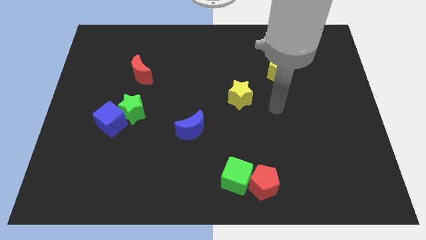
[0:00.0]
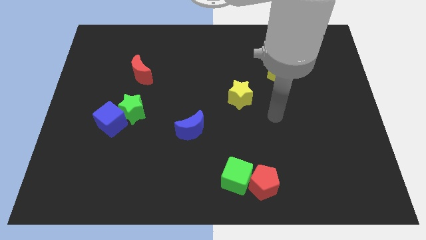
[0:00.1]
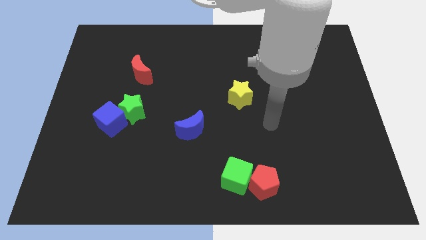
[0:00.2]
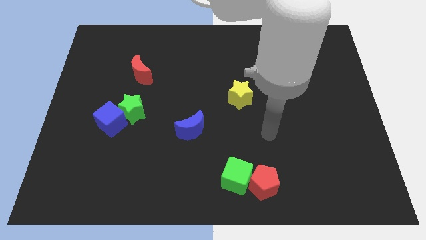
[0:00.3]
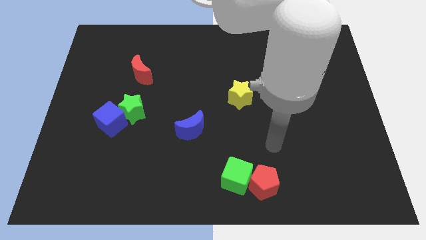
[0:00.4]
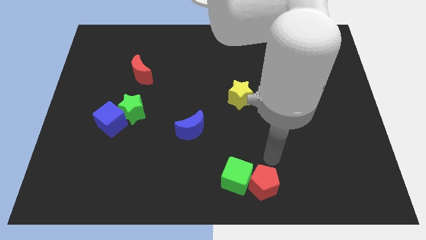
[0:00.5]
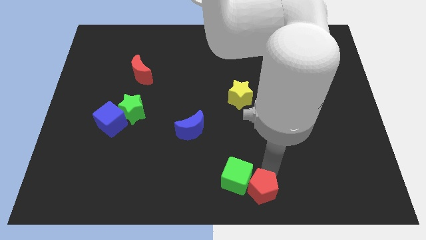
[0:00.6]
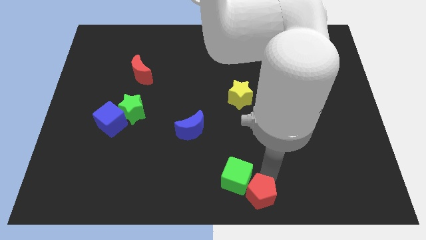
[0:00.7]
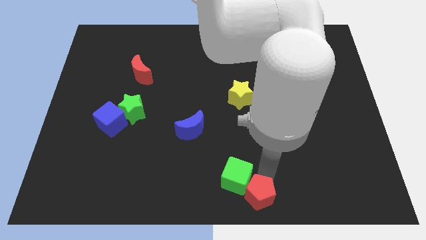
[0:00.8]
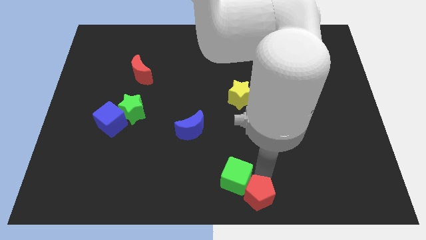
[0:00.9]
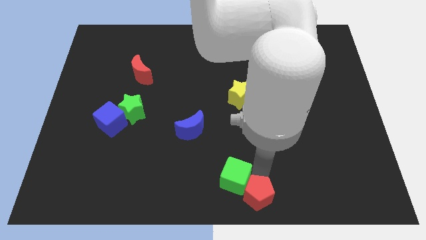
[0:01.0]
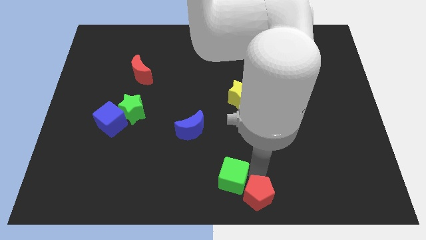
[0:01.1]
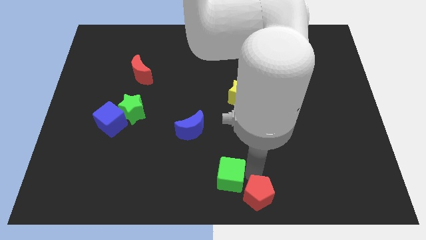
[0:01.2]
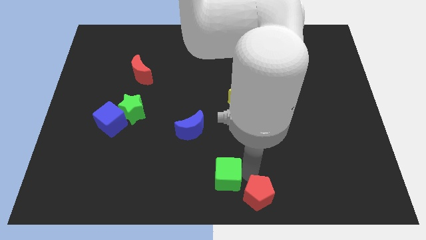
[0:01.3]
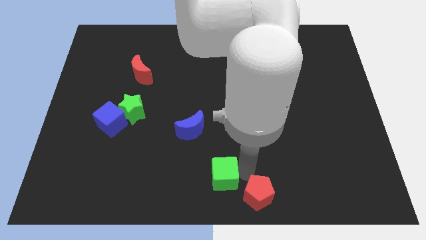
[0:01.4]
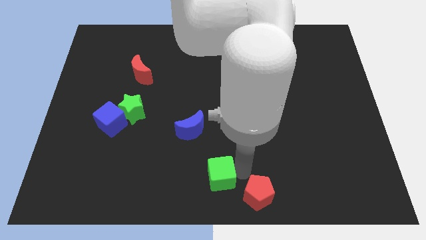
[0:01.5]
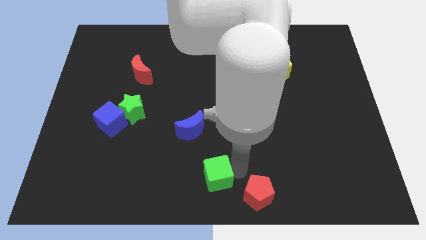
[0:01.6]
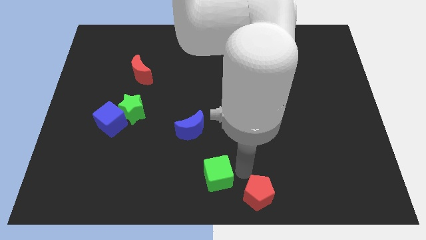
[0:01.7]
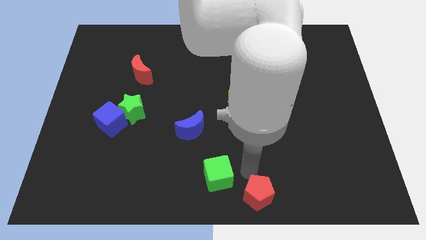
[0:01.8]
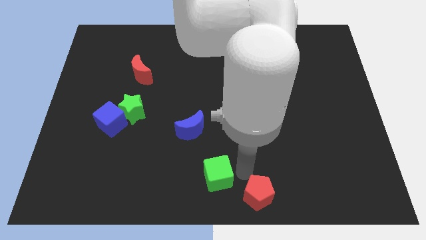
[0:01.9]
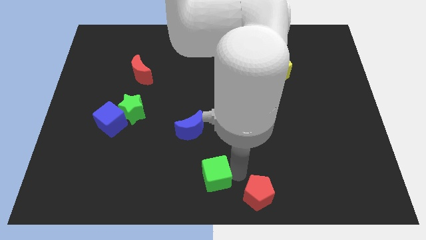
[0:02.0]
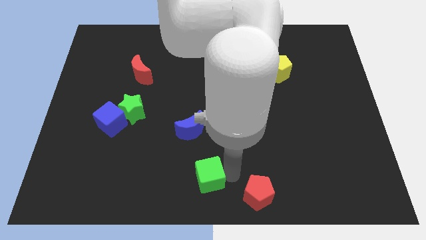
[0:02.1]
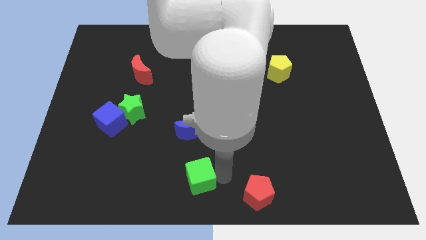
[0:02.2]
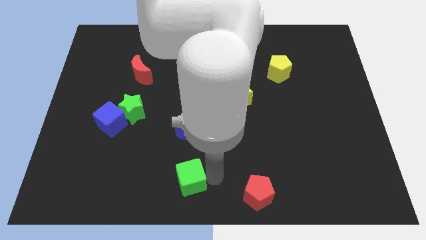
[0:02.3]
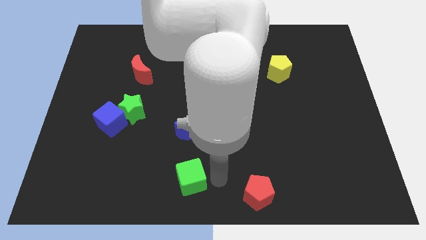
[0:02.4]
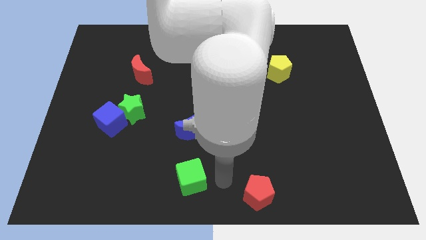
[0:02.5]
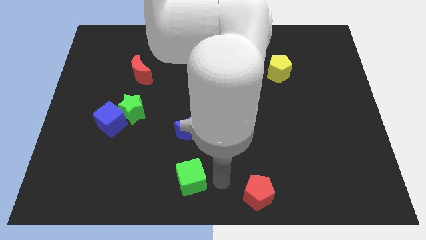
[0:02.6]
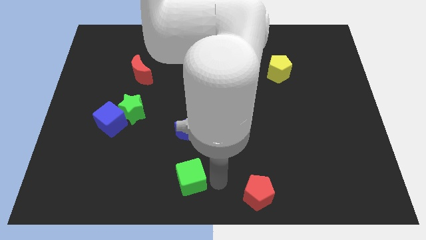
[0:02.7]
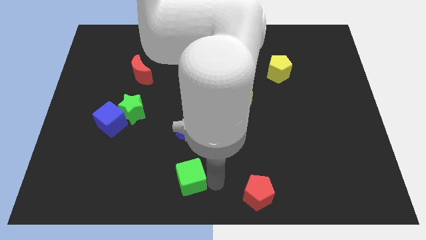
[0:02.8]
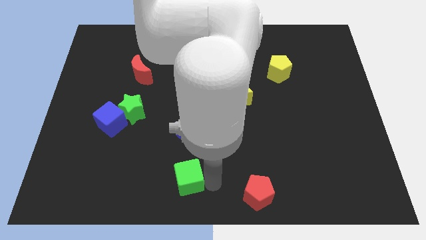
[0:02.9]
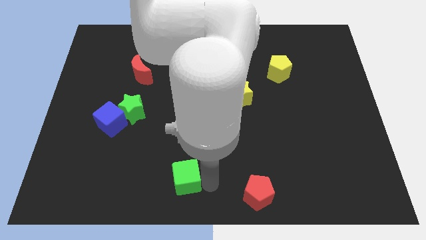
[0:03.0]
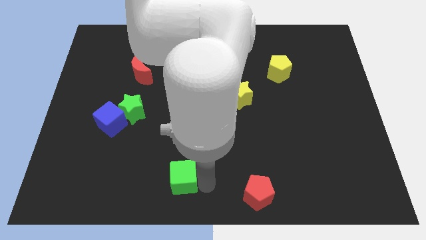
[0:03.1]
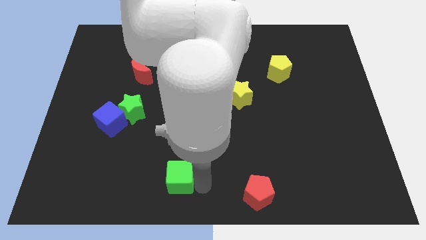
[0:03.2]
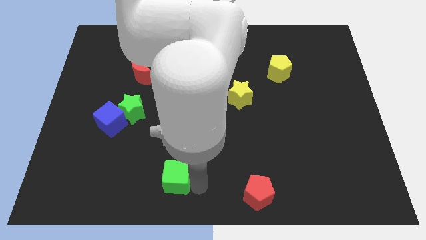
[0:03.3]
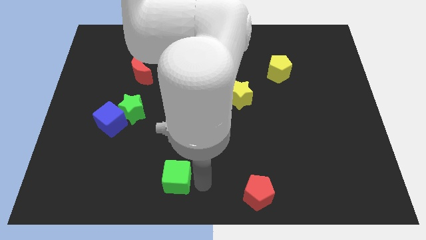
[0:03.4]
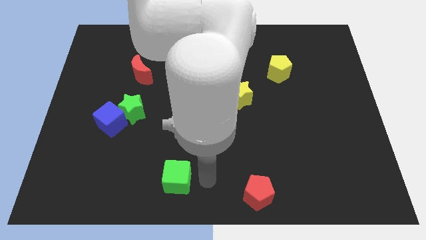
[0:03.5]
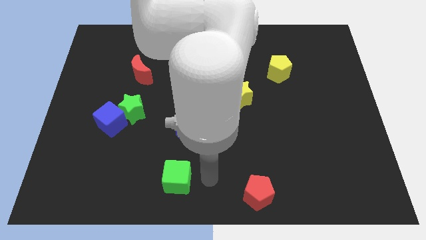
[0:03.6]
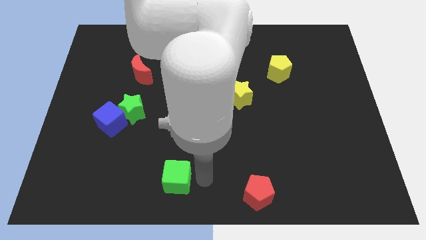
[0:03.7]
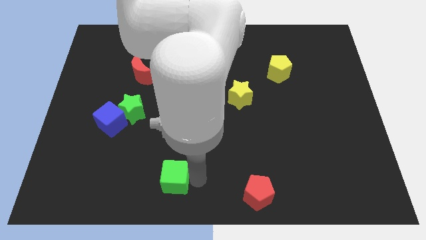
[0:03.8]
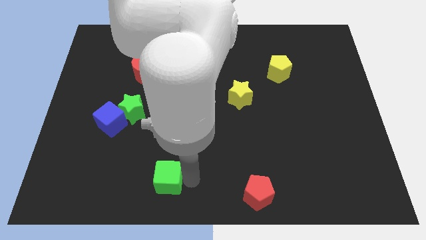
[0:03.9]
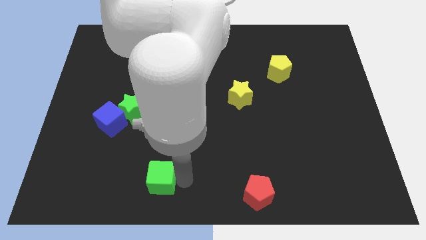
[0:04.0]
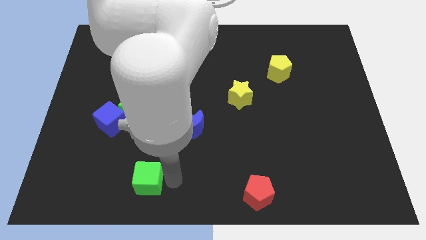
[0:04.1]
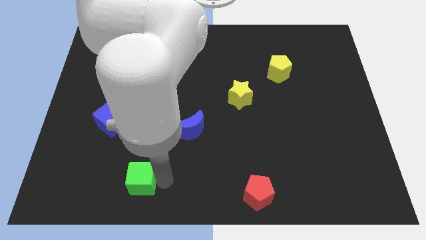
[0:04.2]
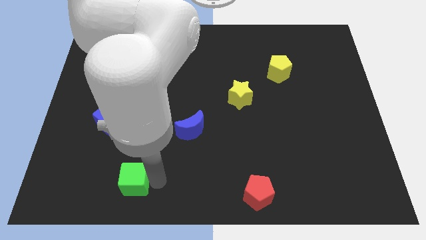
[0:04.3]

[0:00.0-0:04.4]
move the green cube to the left

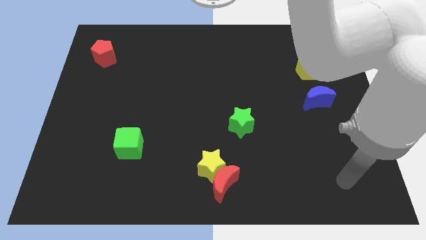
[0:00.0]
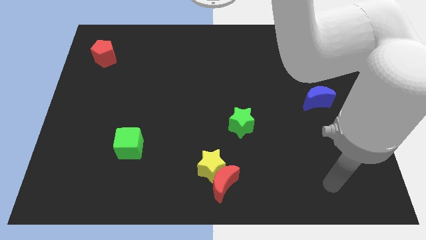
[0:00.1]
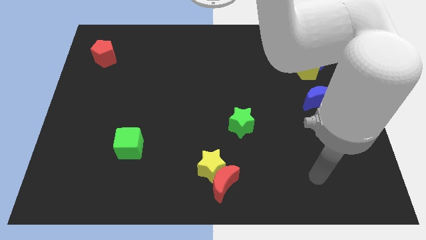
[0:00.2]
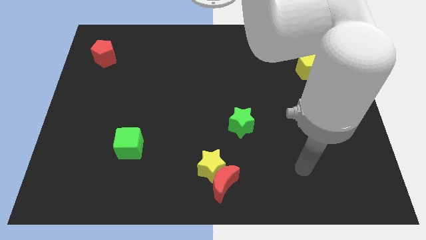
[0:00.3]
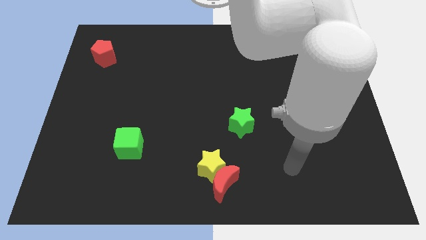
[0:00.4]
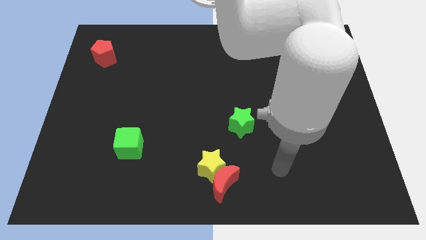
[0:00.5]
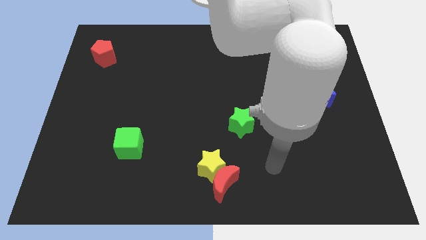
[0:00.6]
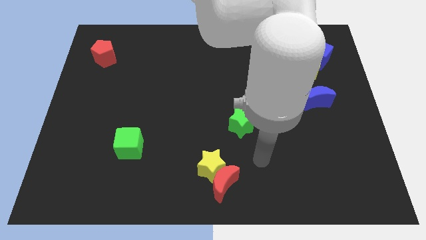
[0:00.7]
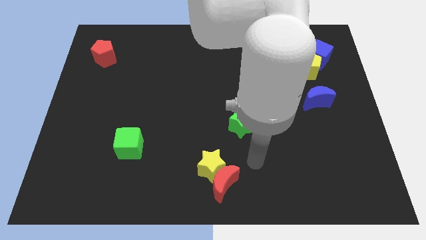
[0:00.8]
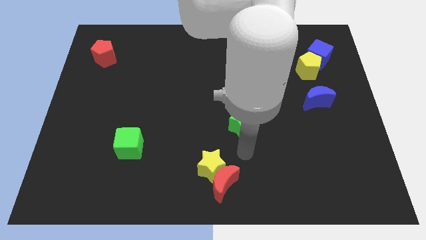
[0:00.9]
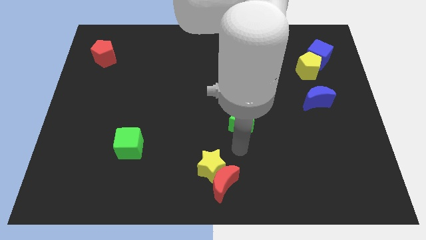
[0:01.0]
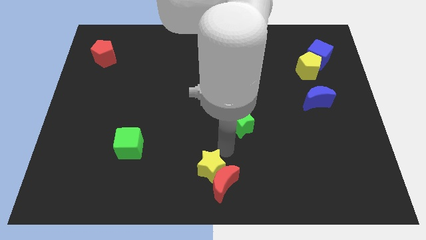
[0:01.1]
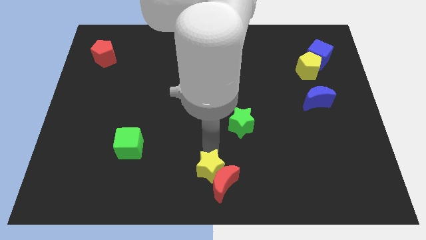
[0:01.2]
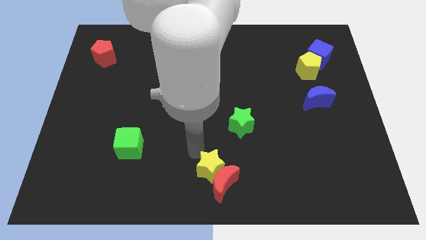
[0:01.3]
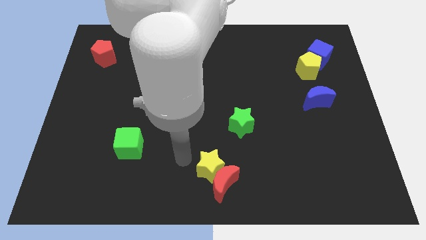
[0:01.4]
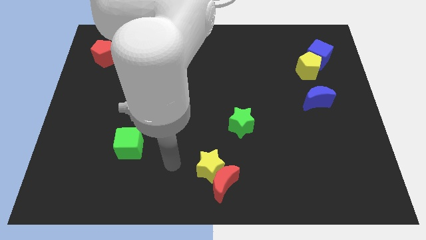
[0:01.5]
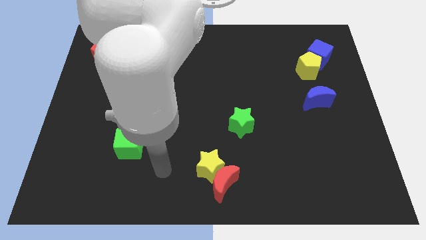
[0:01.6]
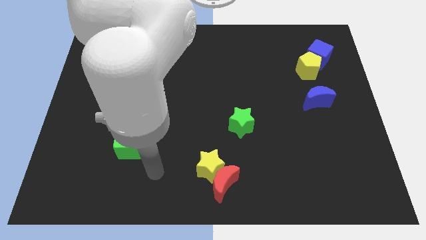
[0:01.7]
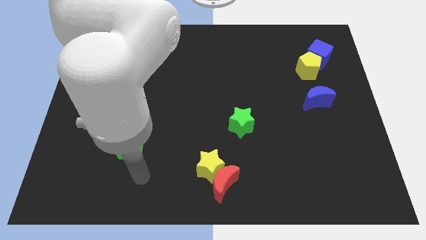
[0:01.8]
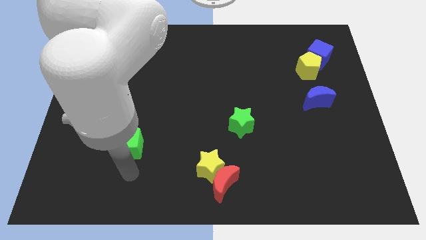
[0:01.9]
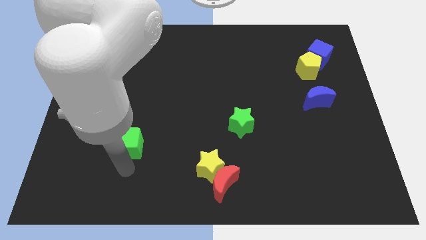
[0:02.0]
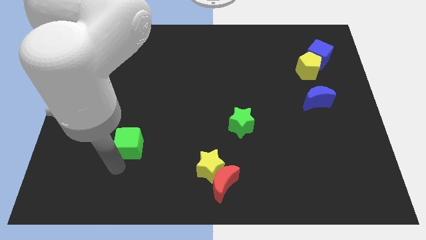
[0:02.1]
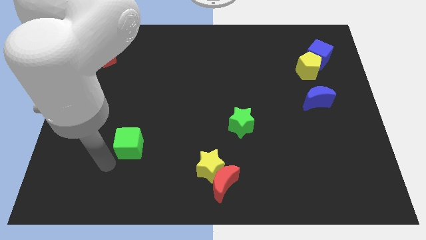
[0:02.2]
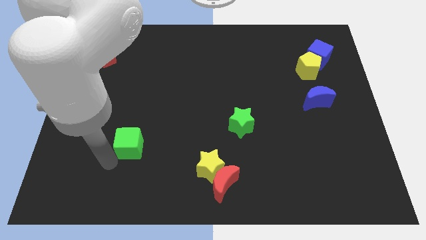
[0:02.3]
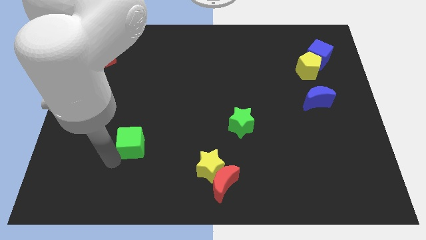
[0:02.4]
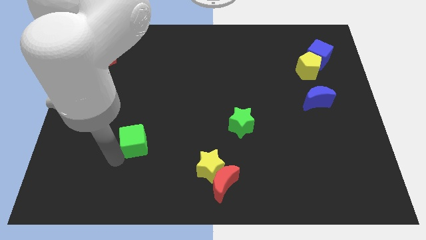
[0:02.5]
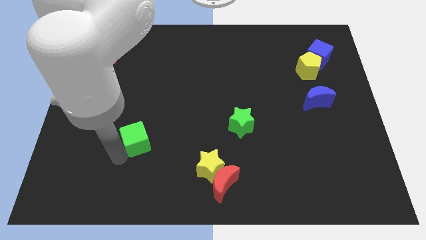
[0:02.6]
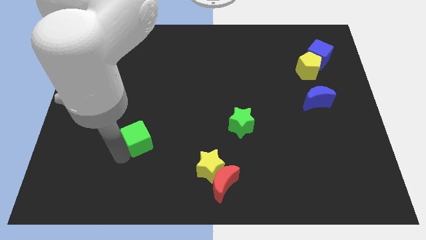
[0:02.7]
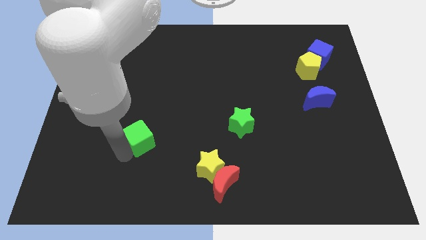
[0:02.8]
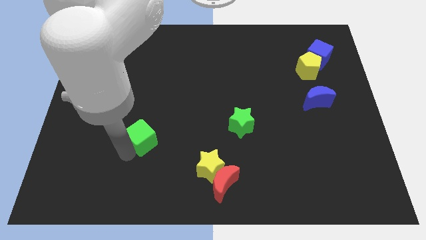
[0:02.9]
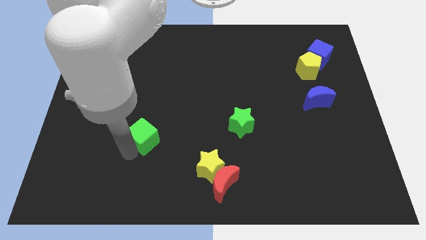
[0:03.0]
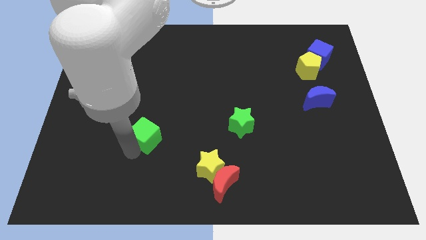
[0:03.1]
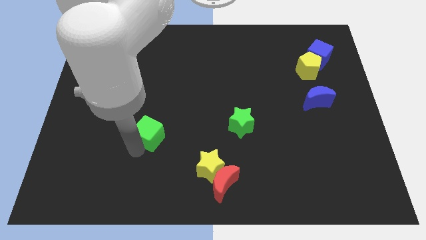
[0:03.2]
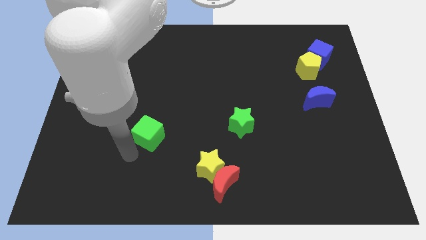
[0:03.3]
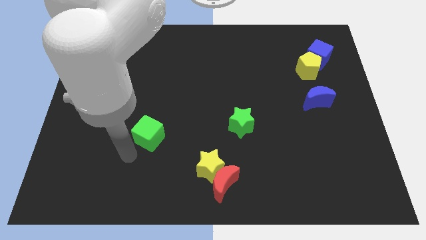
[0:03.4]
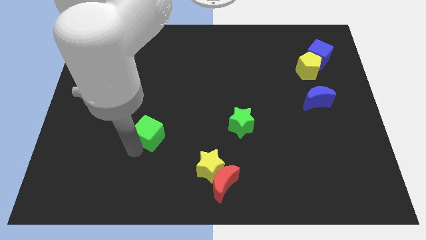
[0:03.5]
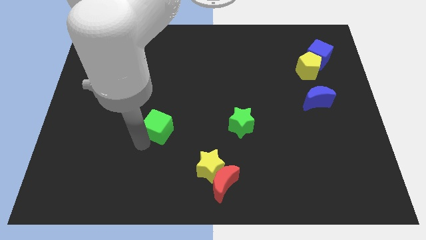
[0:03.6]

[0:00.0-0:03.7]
push the green cube up and right a bit
